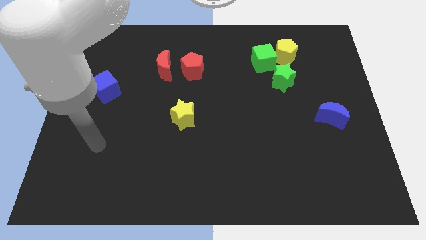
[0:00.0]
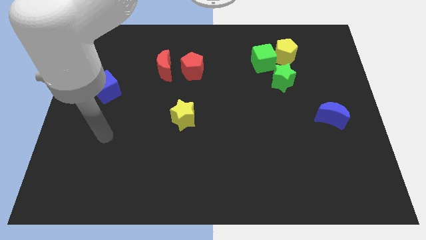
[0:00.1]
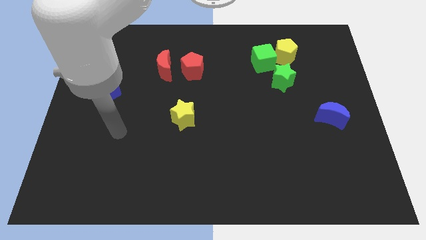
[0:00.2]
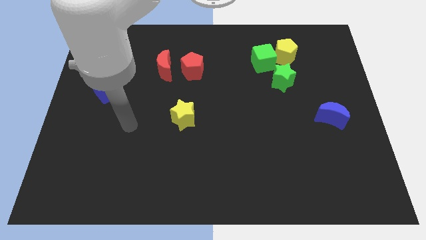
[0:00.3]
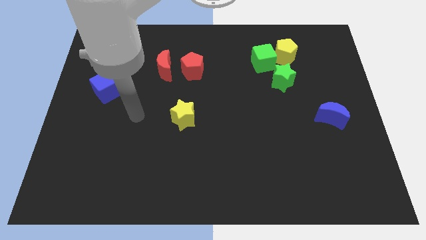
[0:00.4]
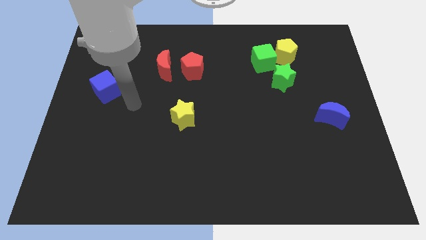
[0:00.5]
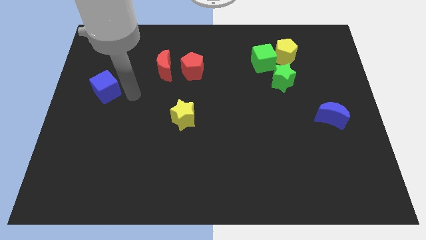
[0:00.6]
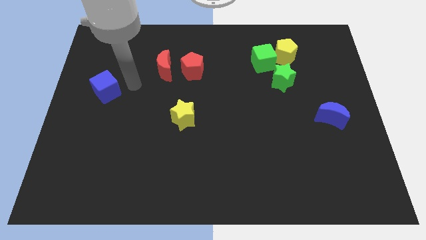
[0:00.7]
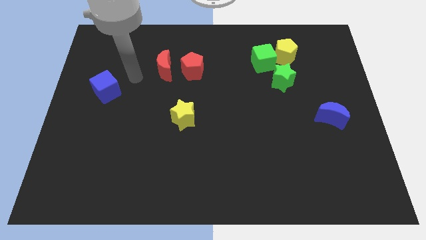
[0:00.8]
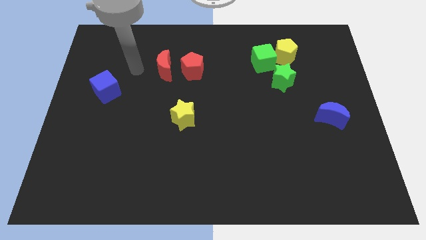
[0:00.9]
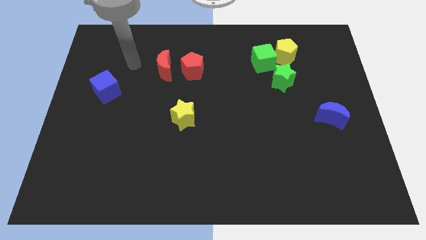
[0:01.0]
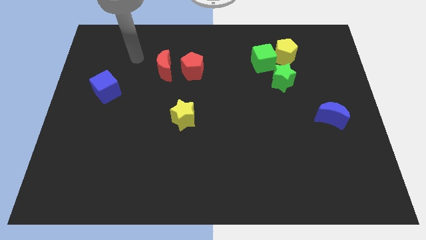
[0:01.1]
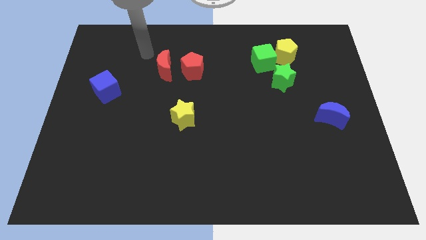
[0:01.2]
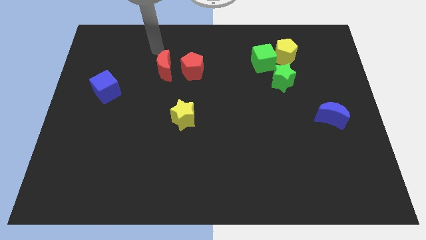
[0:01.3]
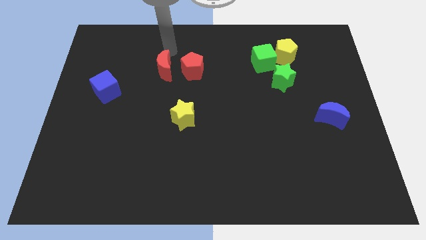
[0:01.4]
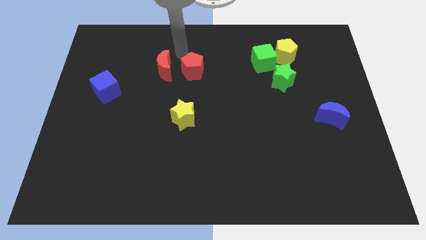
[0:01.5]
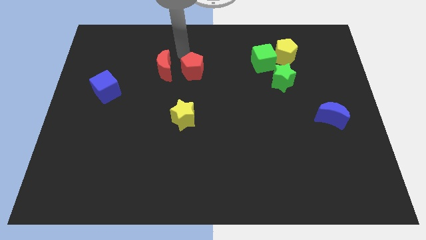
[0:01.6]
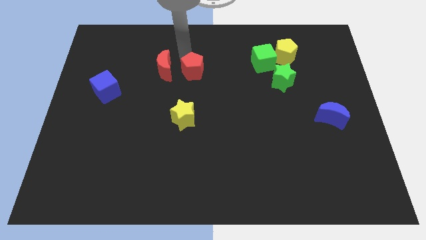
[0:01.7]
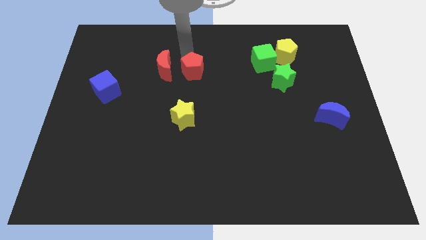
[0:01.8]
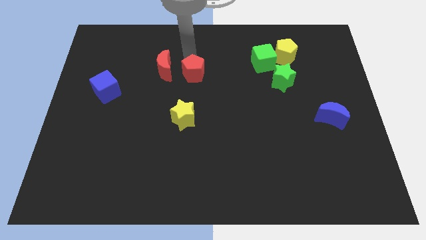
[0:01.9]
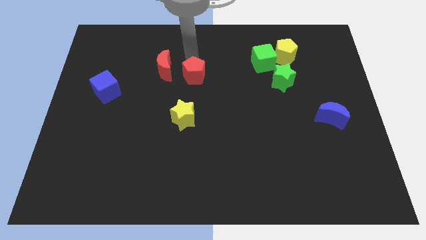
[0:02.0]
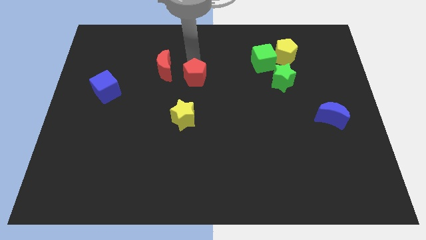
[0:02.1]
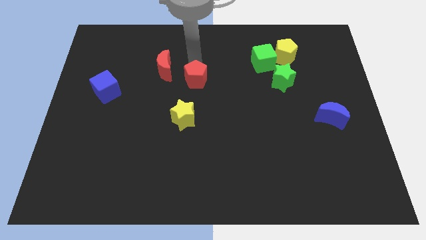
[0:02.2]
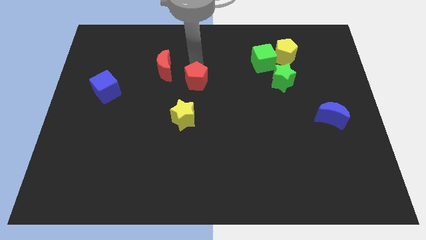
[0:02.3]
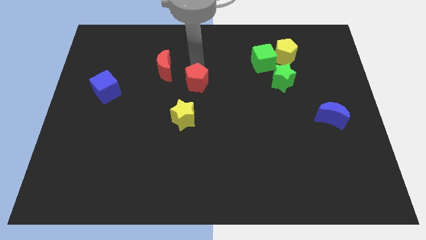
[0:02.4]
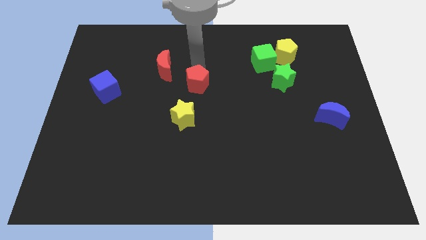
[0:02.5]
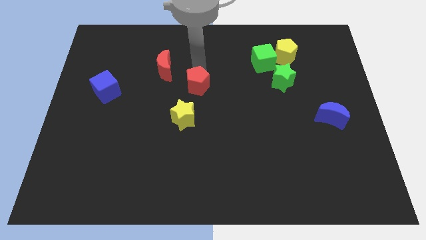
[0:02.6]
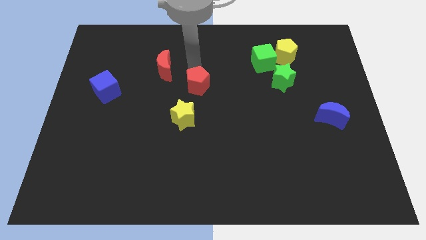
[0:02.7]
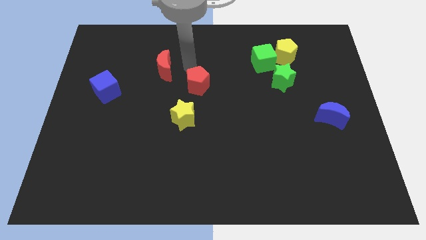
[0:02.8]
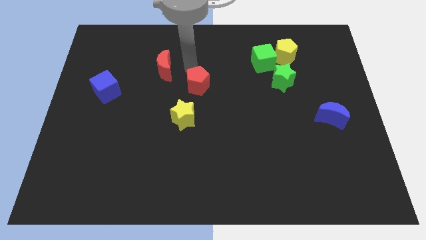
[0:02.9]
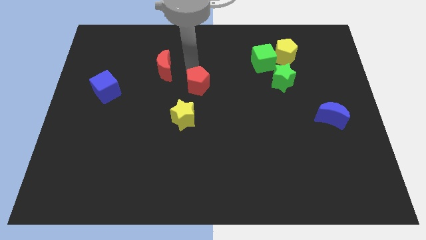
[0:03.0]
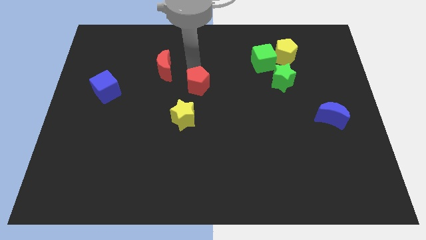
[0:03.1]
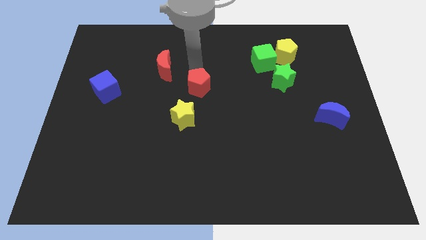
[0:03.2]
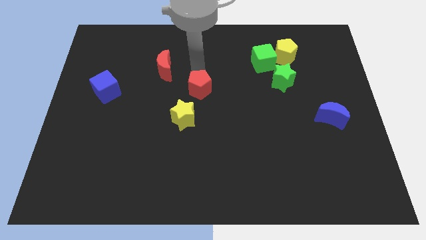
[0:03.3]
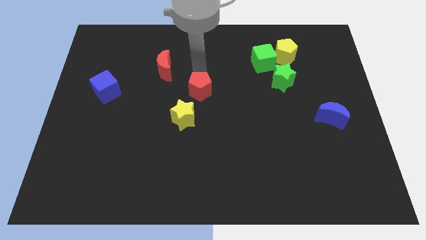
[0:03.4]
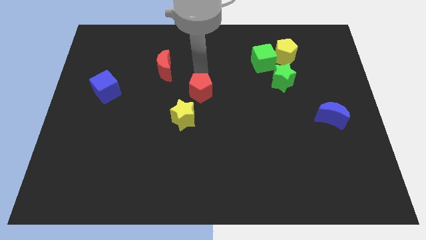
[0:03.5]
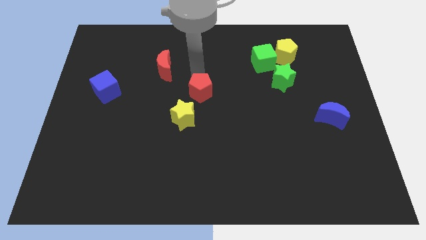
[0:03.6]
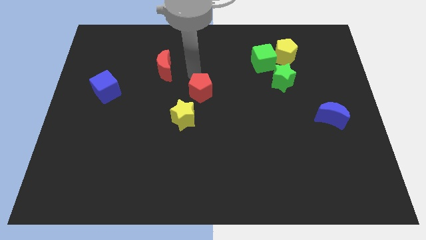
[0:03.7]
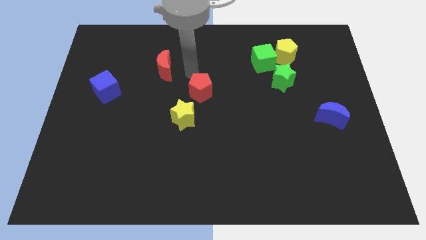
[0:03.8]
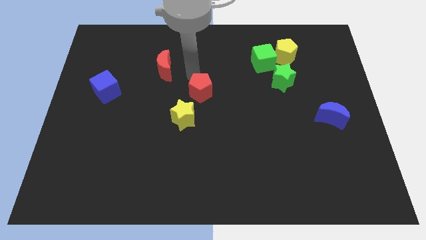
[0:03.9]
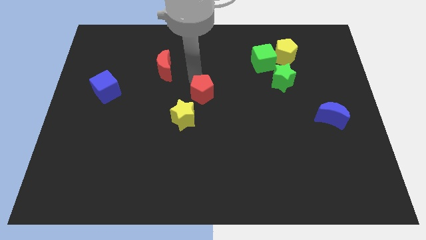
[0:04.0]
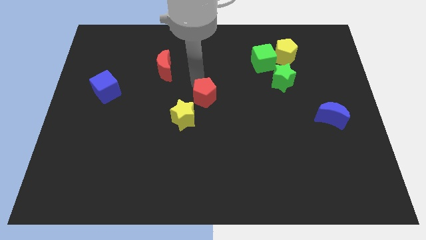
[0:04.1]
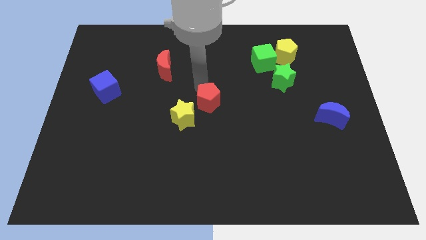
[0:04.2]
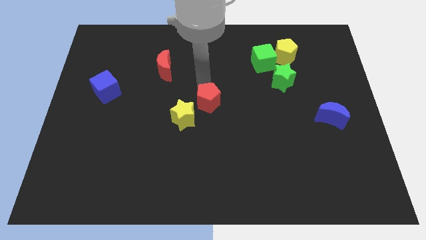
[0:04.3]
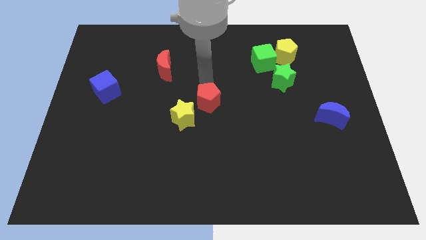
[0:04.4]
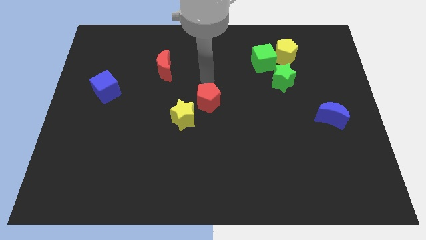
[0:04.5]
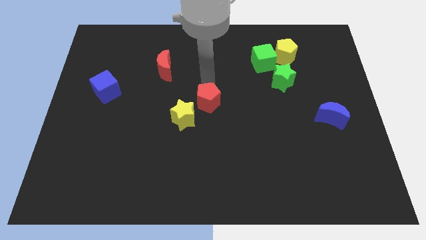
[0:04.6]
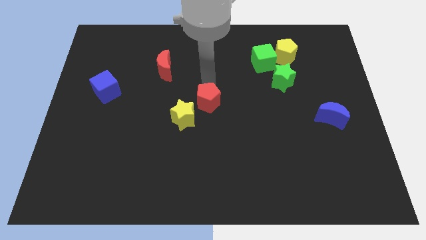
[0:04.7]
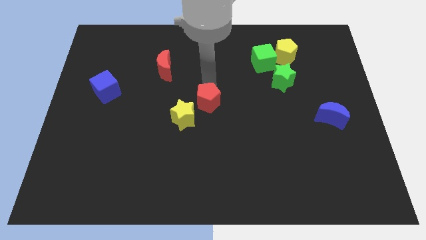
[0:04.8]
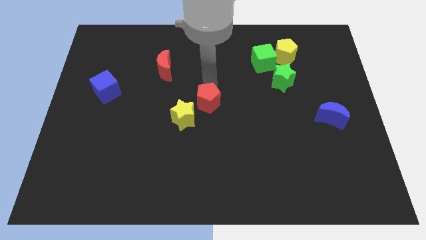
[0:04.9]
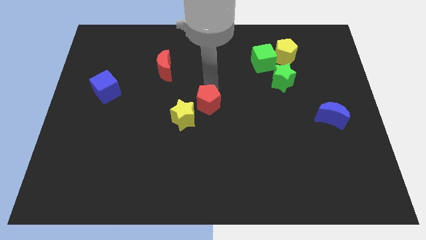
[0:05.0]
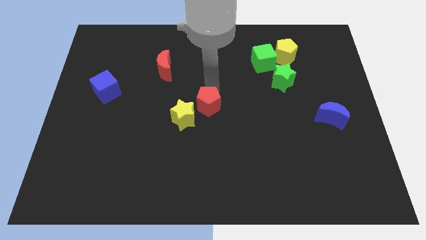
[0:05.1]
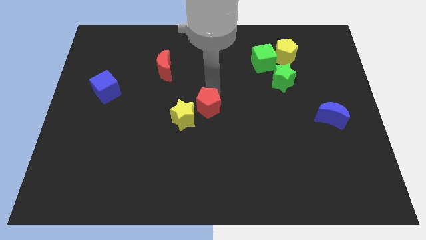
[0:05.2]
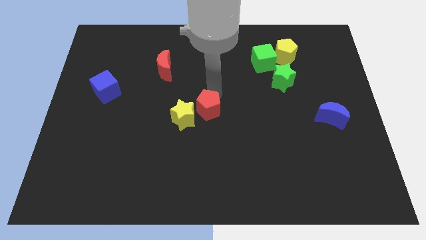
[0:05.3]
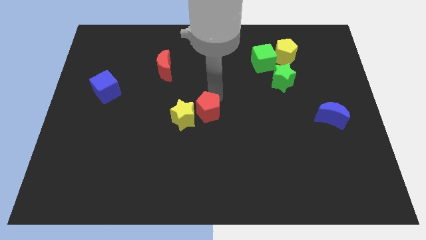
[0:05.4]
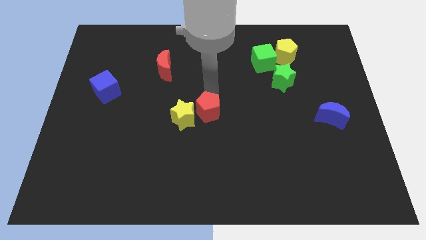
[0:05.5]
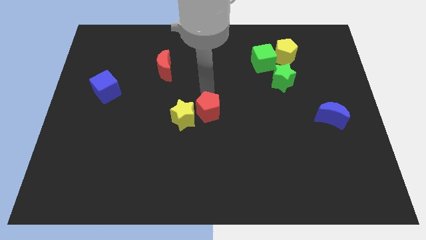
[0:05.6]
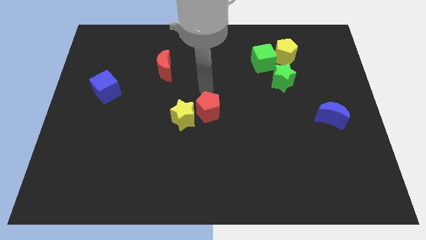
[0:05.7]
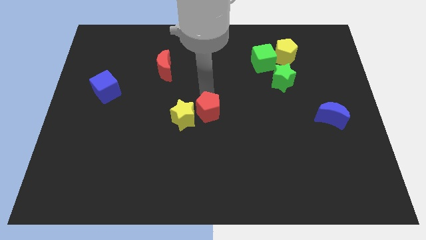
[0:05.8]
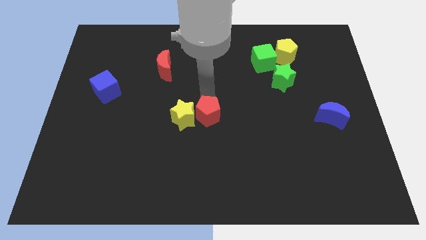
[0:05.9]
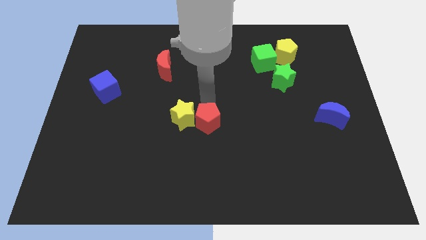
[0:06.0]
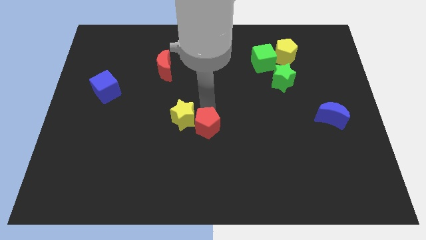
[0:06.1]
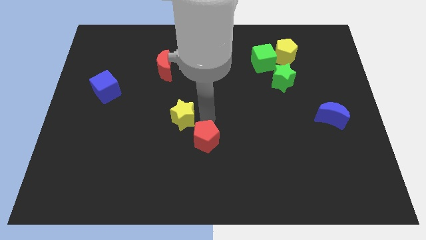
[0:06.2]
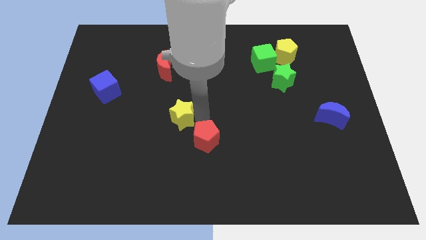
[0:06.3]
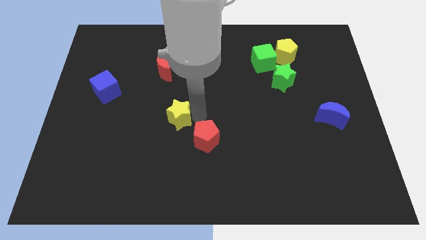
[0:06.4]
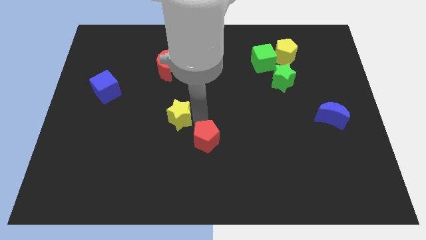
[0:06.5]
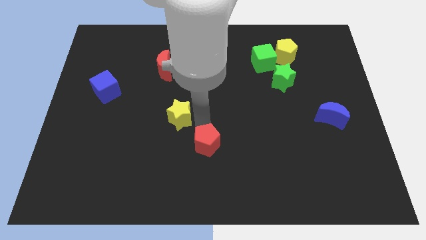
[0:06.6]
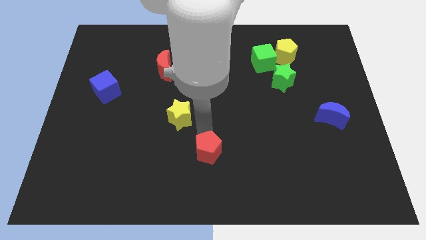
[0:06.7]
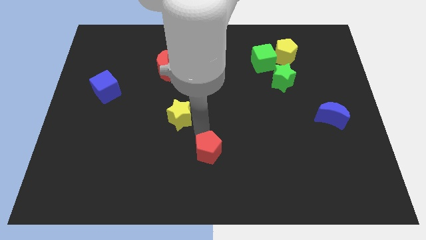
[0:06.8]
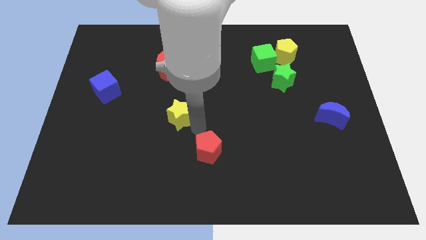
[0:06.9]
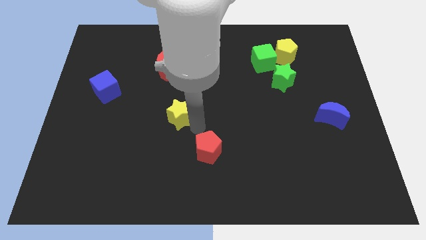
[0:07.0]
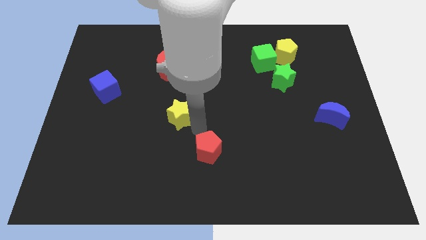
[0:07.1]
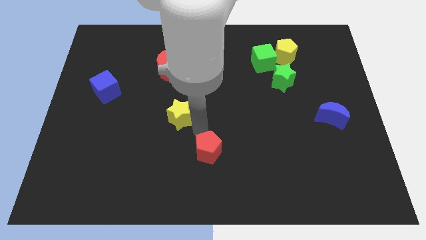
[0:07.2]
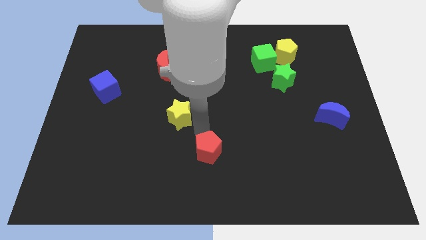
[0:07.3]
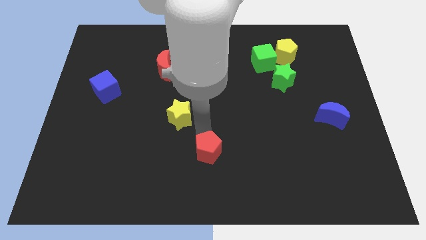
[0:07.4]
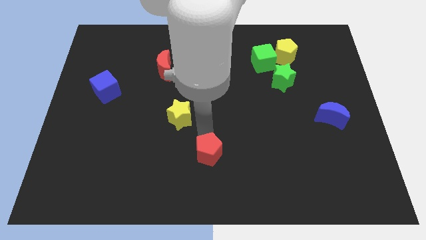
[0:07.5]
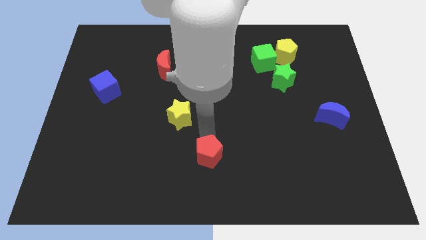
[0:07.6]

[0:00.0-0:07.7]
slide the red pentagon to the bottom
